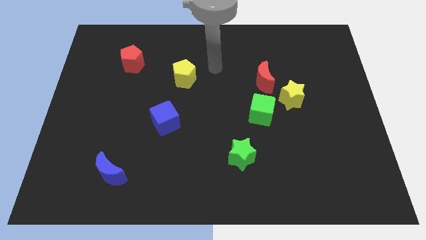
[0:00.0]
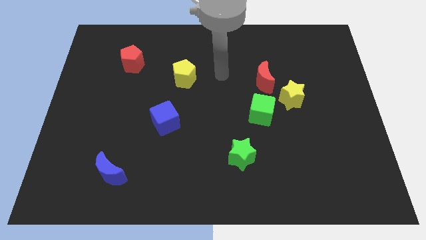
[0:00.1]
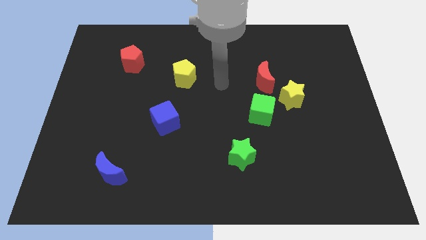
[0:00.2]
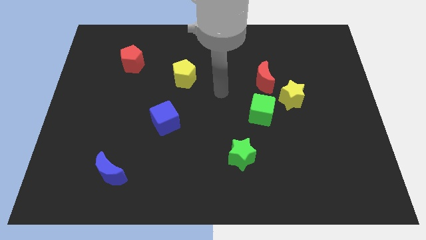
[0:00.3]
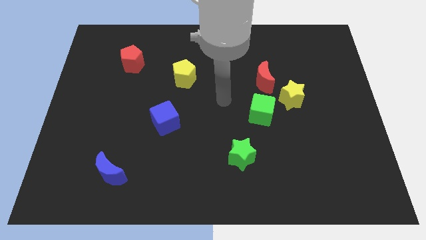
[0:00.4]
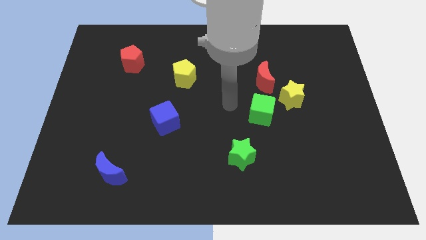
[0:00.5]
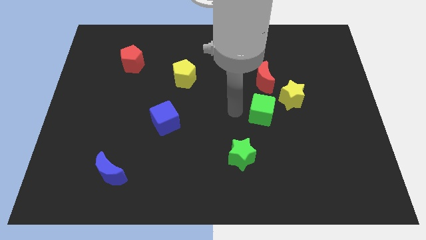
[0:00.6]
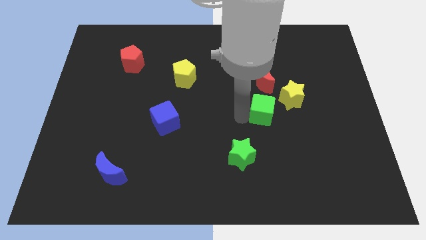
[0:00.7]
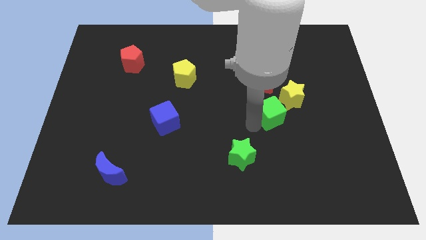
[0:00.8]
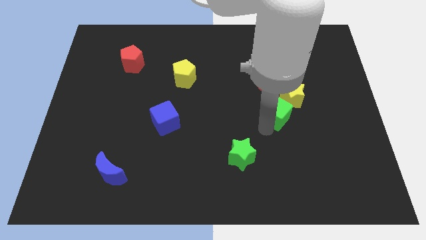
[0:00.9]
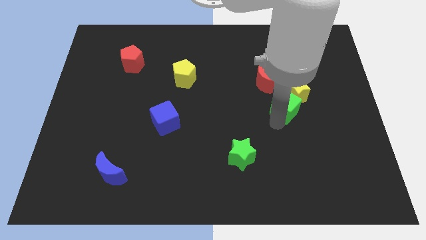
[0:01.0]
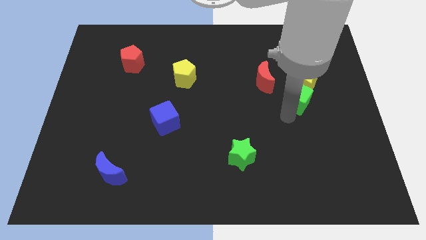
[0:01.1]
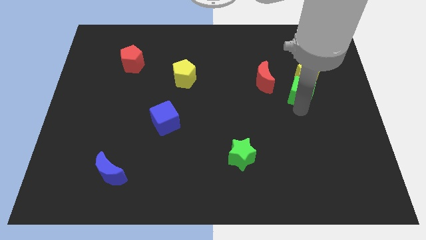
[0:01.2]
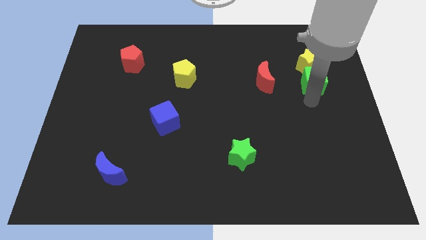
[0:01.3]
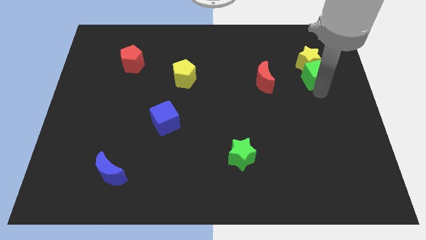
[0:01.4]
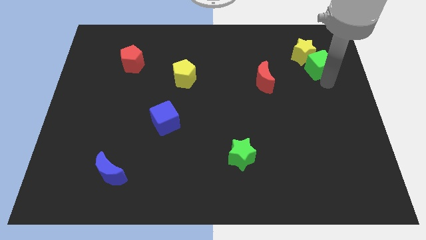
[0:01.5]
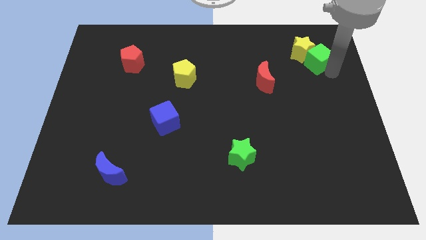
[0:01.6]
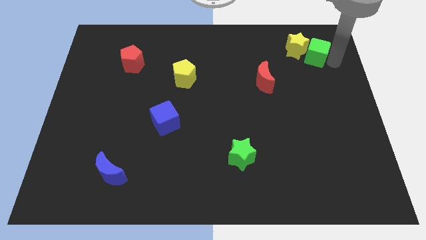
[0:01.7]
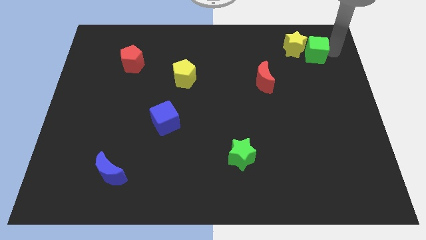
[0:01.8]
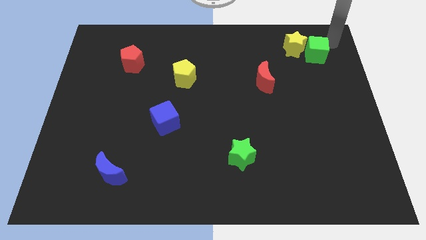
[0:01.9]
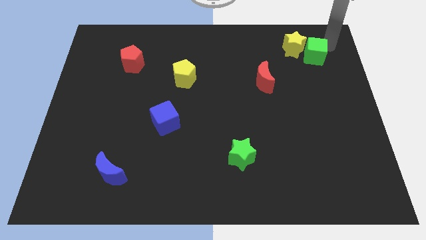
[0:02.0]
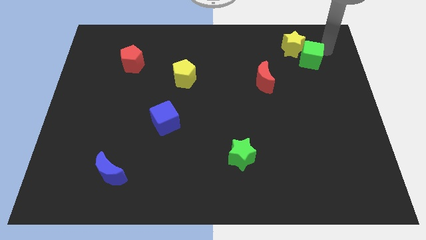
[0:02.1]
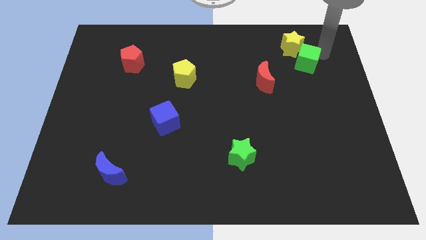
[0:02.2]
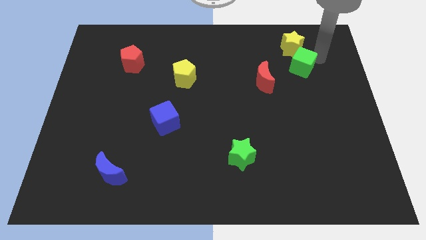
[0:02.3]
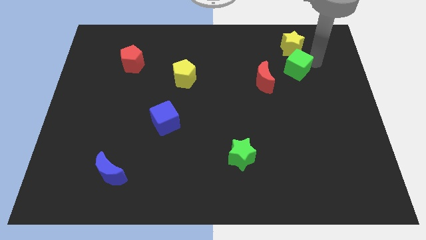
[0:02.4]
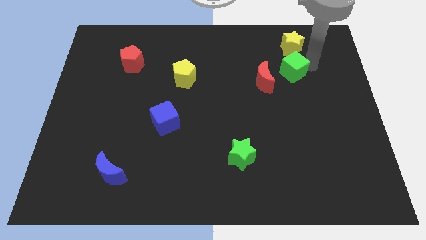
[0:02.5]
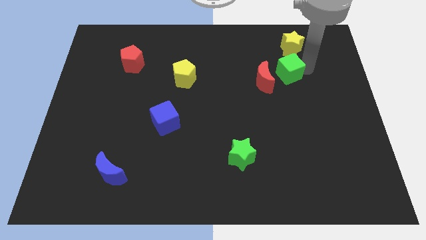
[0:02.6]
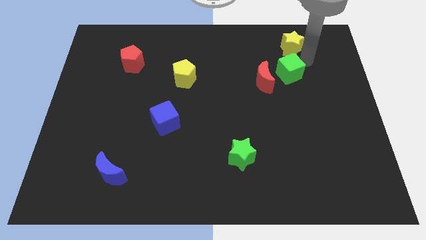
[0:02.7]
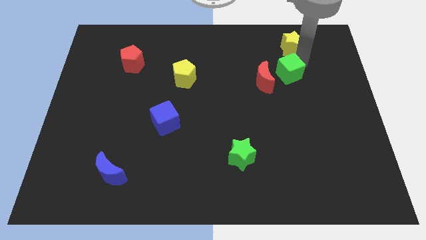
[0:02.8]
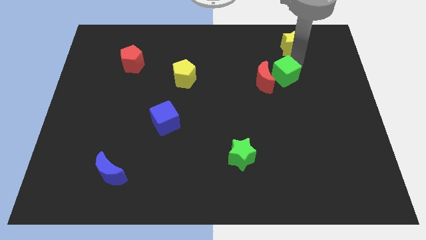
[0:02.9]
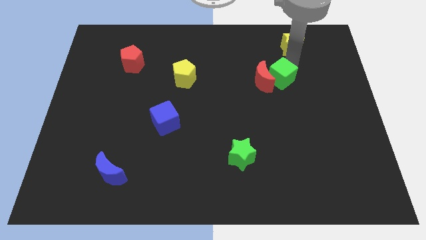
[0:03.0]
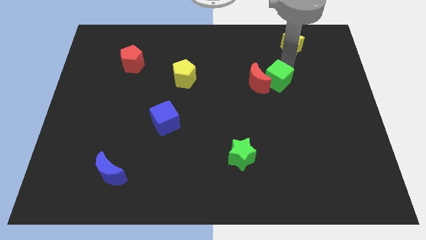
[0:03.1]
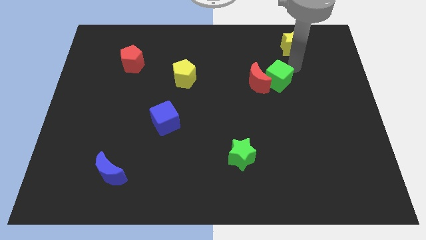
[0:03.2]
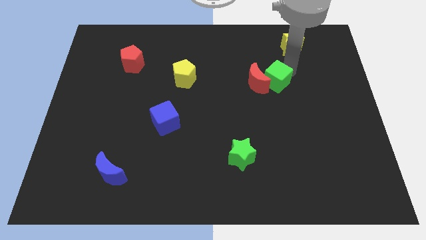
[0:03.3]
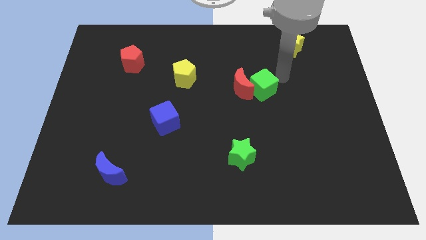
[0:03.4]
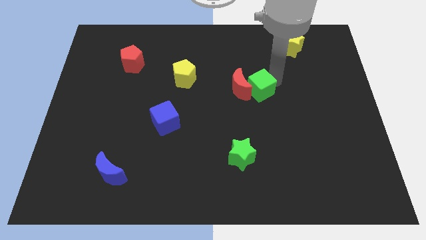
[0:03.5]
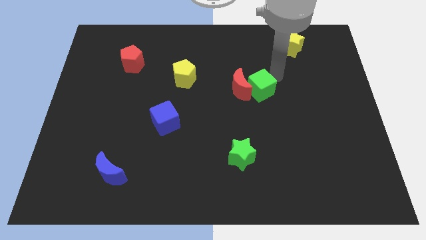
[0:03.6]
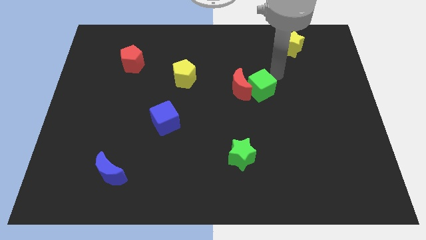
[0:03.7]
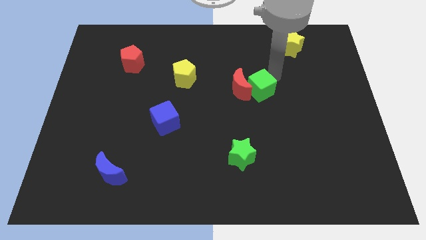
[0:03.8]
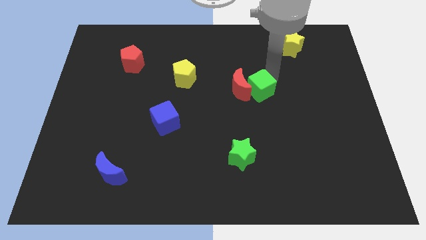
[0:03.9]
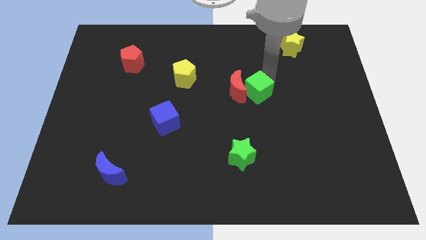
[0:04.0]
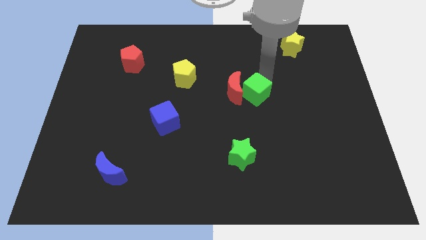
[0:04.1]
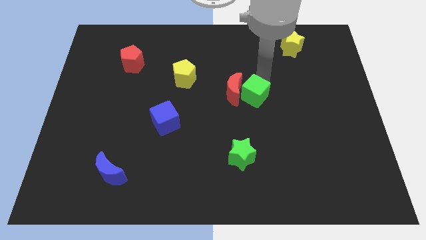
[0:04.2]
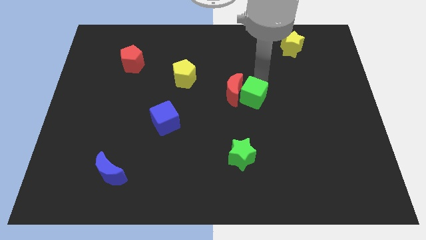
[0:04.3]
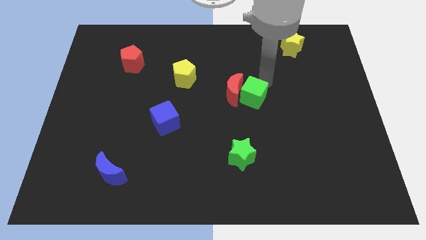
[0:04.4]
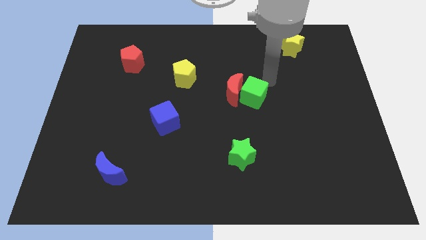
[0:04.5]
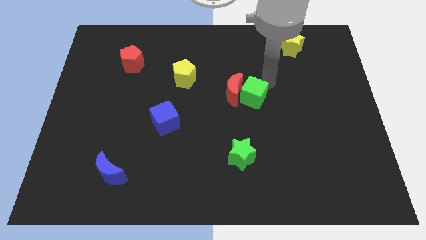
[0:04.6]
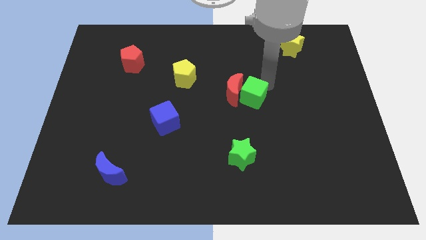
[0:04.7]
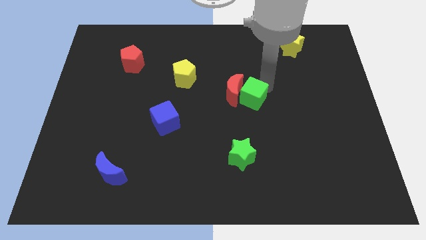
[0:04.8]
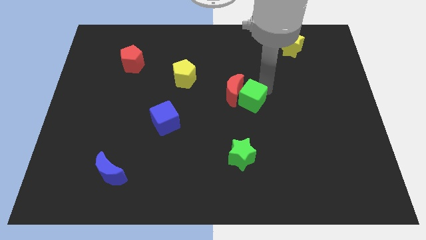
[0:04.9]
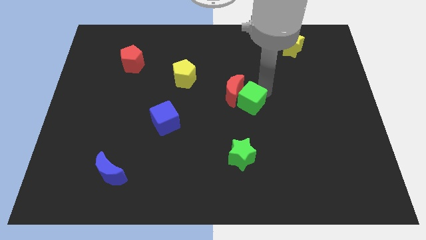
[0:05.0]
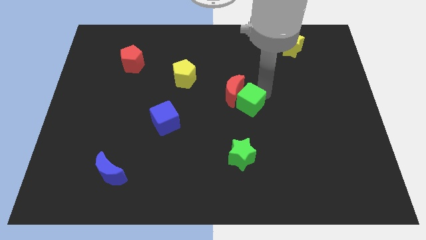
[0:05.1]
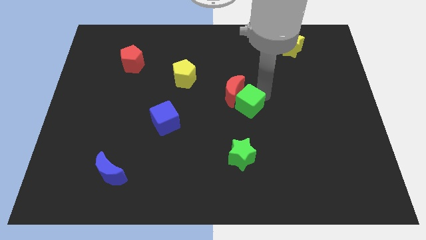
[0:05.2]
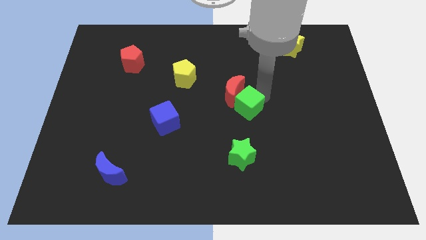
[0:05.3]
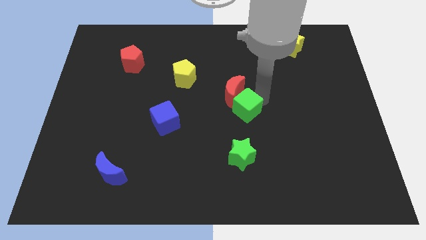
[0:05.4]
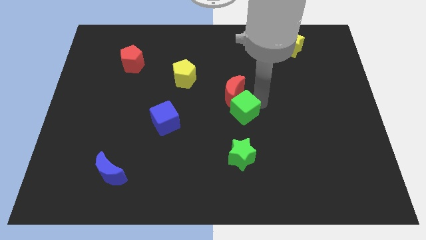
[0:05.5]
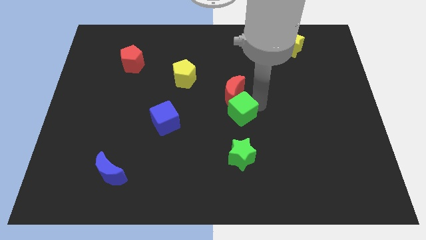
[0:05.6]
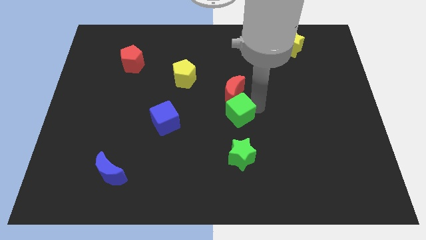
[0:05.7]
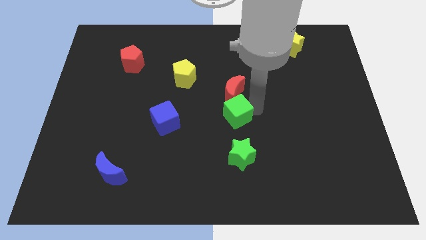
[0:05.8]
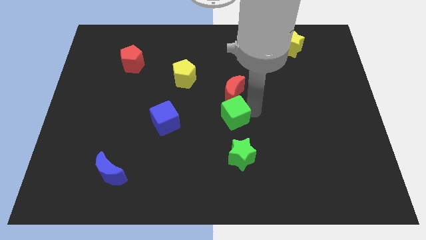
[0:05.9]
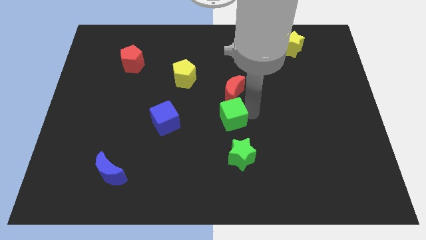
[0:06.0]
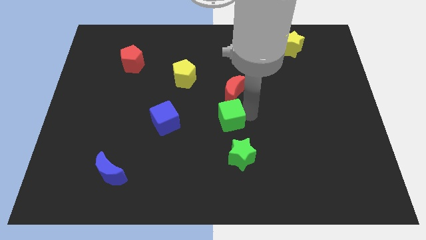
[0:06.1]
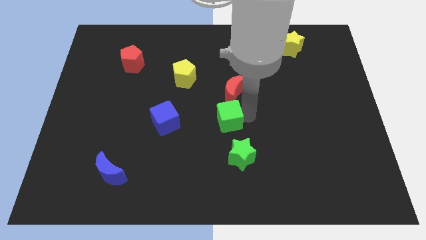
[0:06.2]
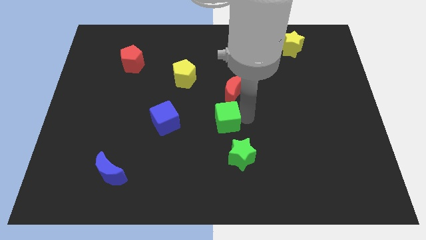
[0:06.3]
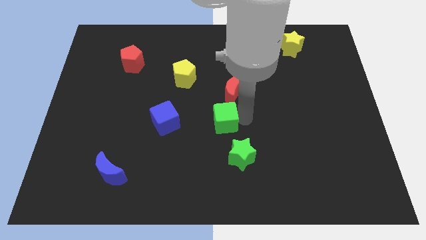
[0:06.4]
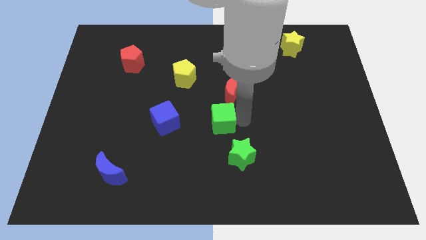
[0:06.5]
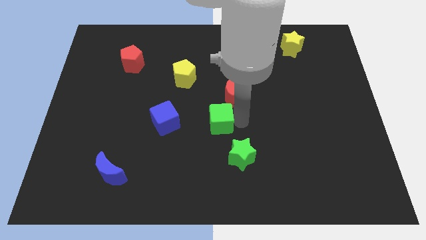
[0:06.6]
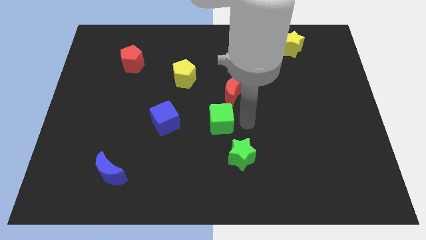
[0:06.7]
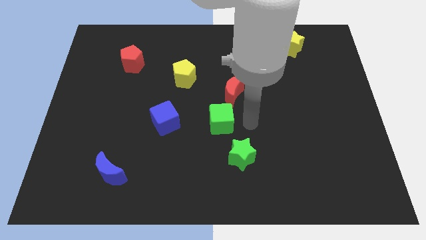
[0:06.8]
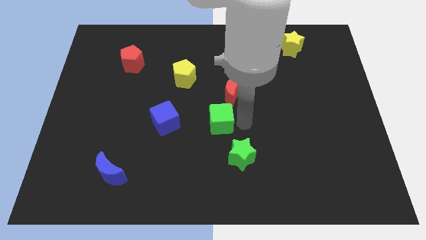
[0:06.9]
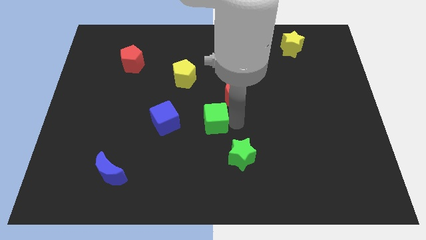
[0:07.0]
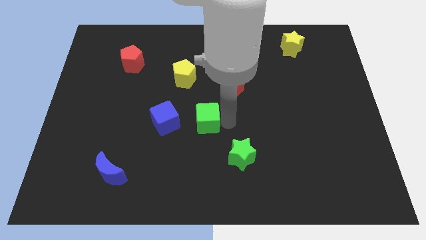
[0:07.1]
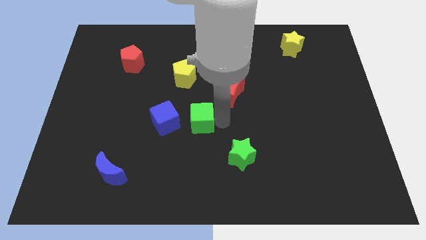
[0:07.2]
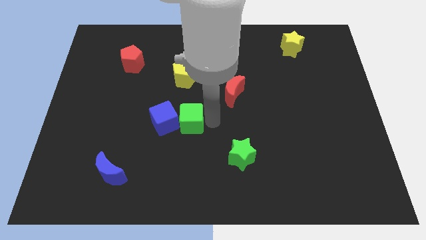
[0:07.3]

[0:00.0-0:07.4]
move the green cube towards the blue cube
